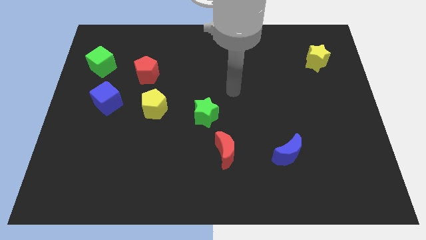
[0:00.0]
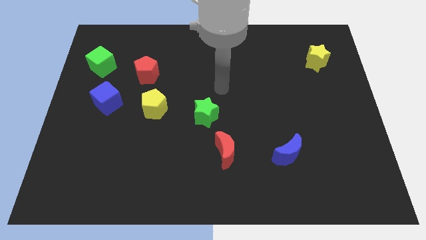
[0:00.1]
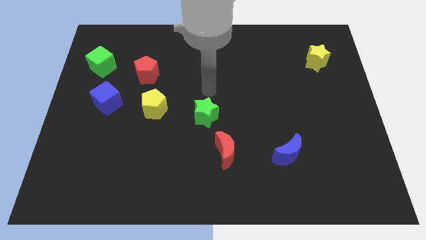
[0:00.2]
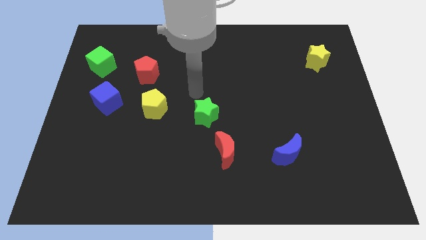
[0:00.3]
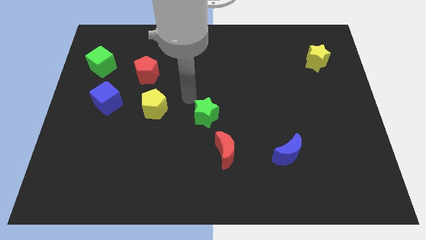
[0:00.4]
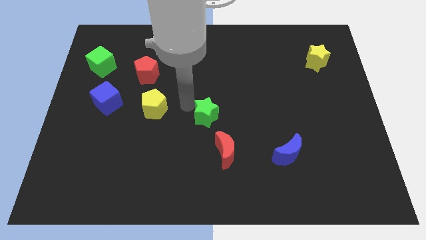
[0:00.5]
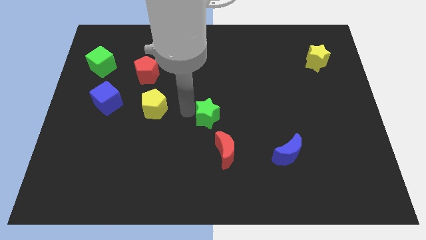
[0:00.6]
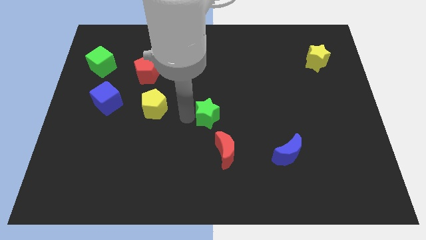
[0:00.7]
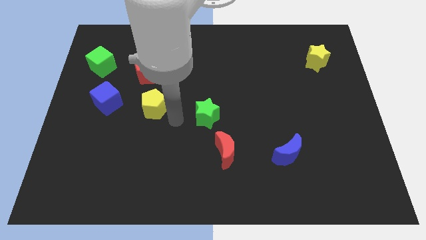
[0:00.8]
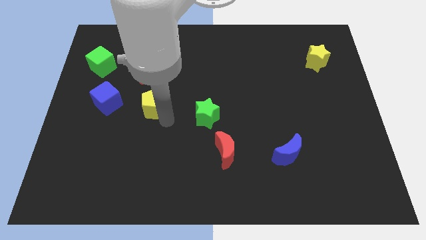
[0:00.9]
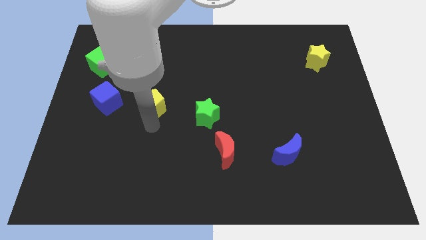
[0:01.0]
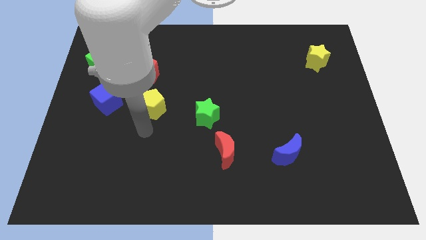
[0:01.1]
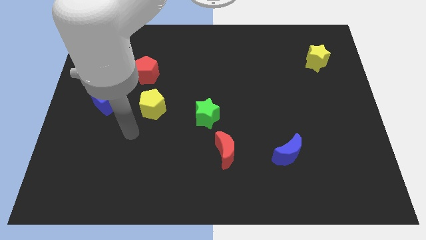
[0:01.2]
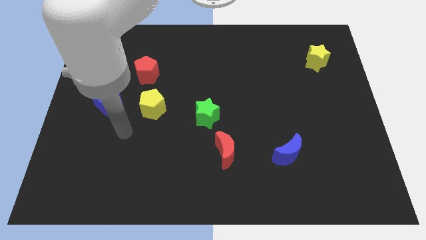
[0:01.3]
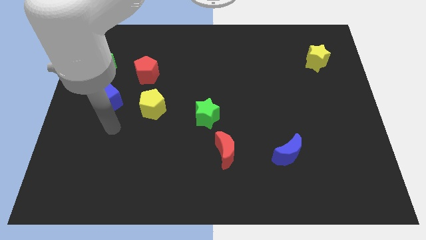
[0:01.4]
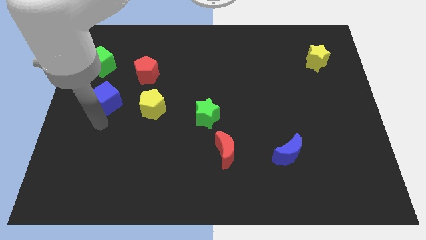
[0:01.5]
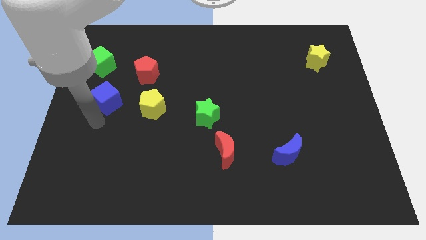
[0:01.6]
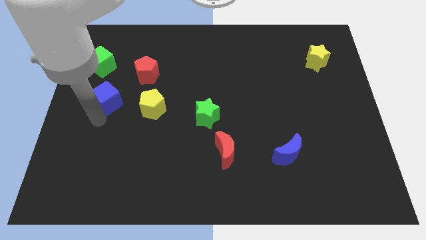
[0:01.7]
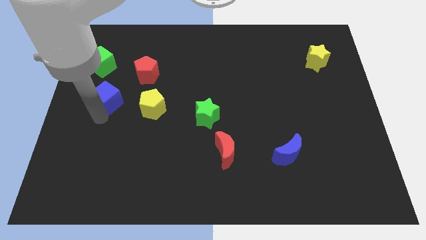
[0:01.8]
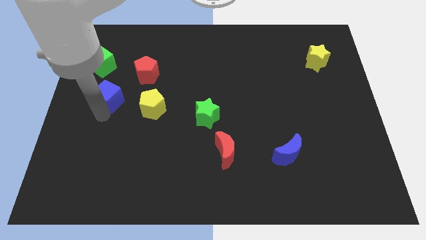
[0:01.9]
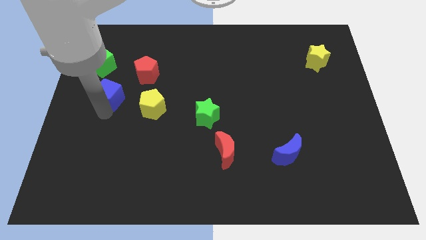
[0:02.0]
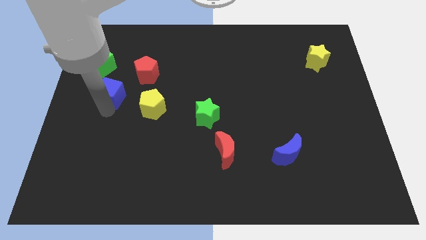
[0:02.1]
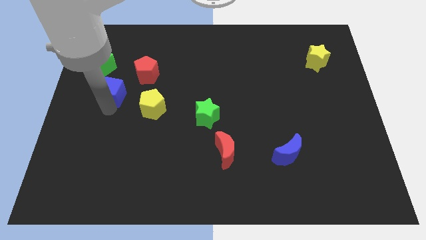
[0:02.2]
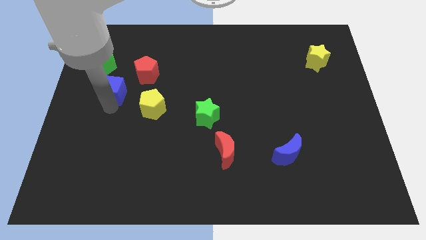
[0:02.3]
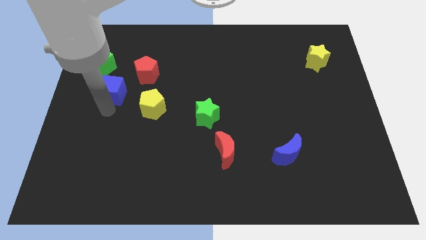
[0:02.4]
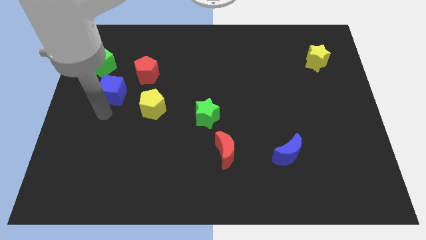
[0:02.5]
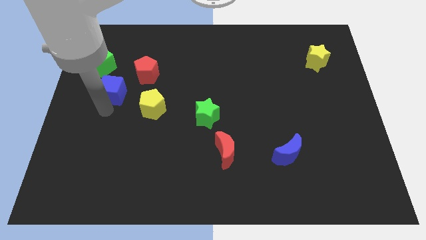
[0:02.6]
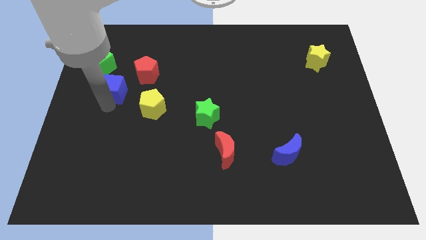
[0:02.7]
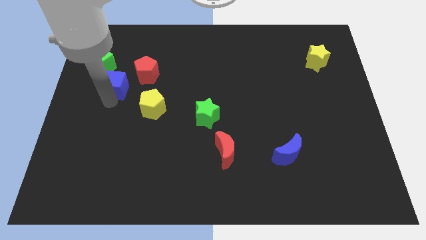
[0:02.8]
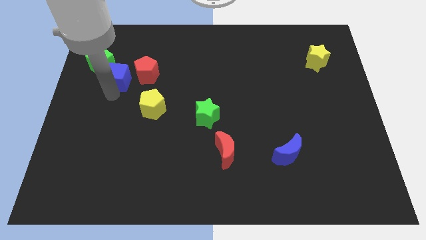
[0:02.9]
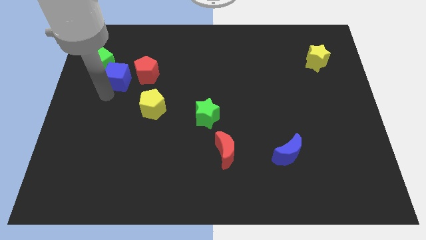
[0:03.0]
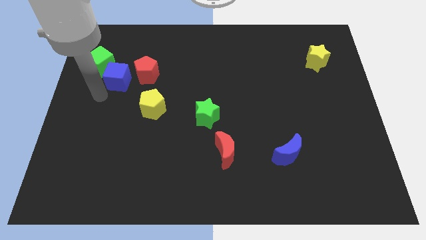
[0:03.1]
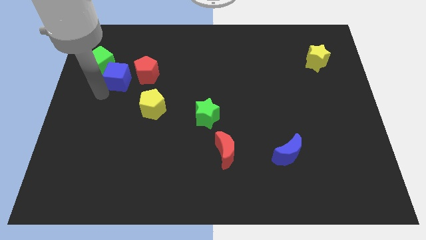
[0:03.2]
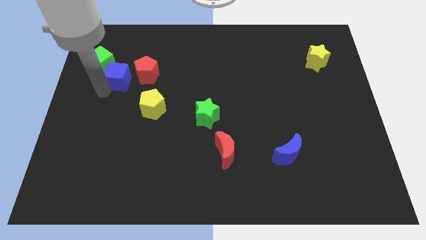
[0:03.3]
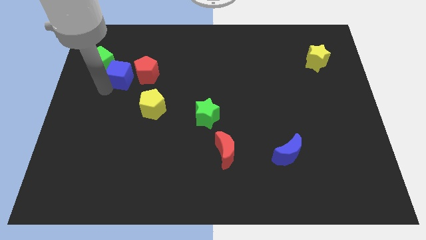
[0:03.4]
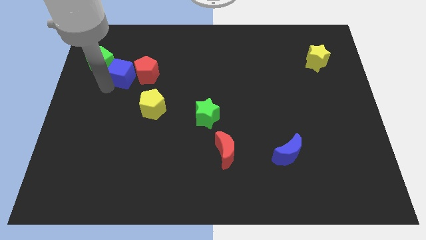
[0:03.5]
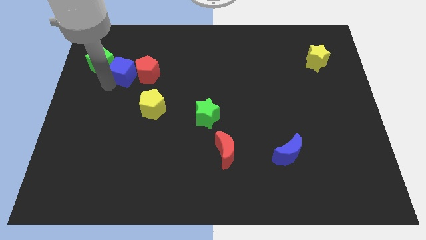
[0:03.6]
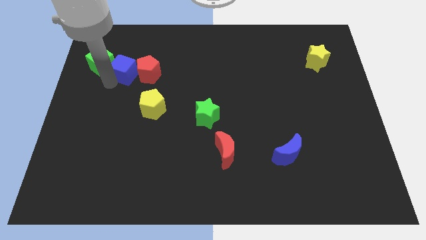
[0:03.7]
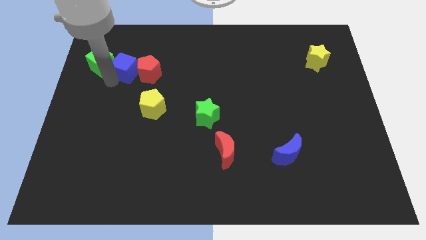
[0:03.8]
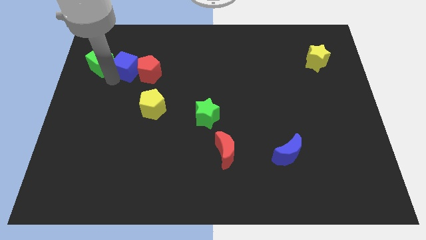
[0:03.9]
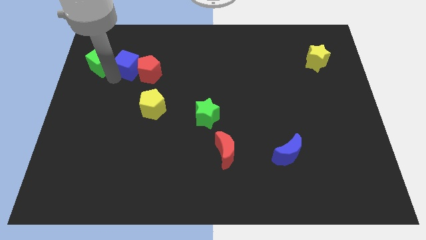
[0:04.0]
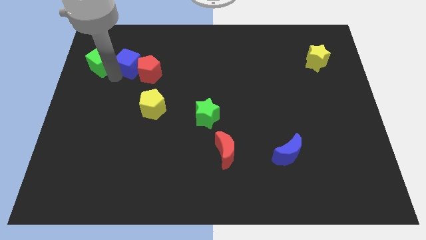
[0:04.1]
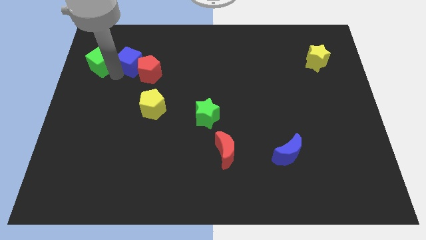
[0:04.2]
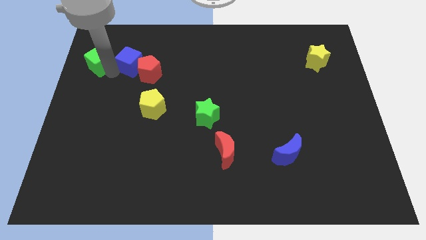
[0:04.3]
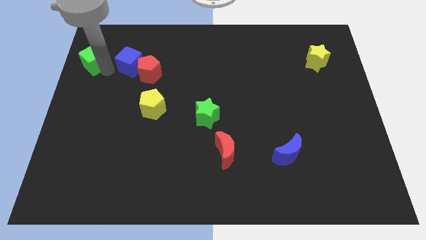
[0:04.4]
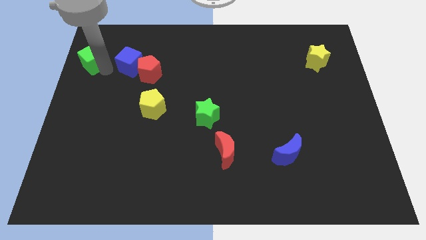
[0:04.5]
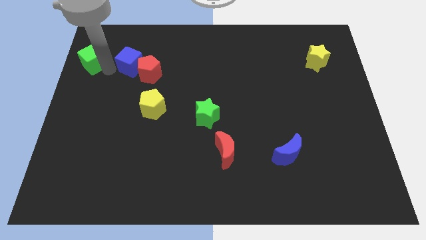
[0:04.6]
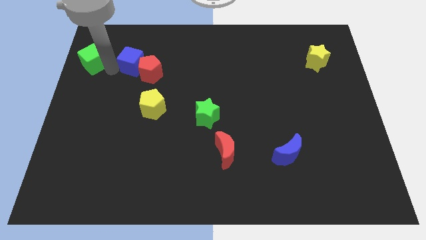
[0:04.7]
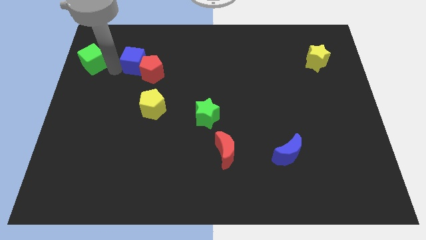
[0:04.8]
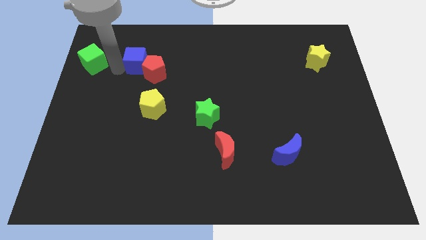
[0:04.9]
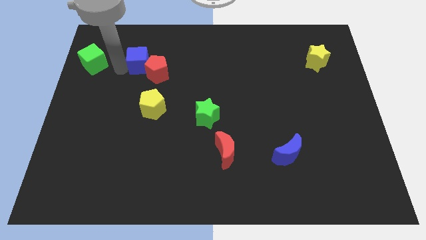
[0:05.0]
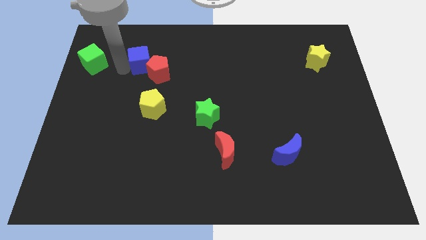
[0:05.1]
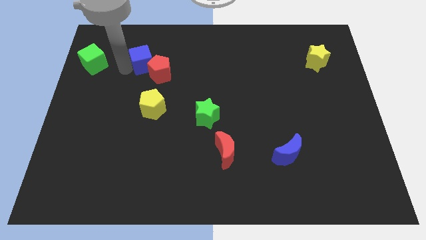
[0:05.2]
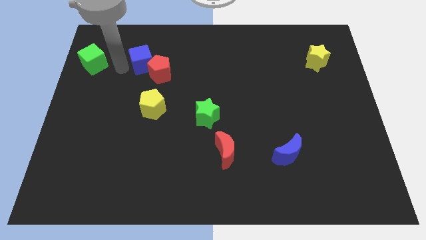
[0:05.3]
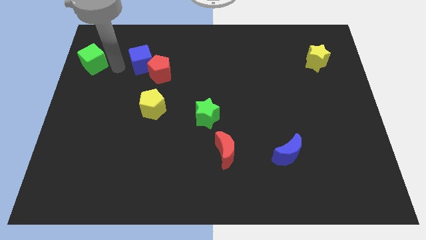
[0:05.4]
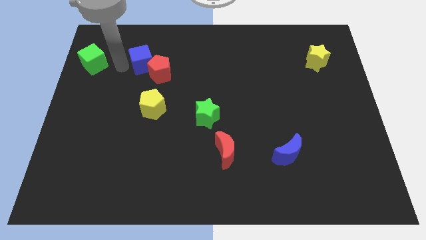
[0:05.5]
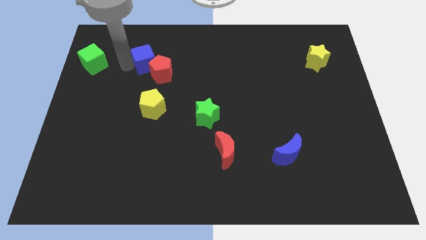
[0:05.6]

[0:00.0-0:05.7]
move the blue cube to the top side of the yellow pentagon
